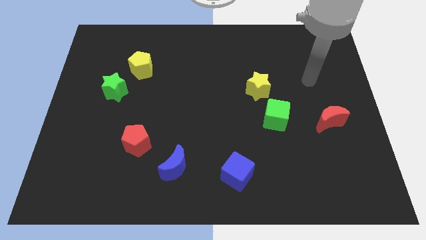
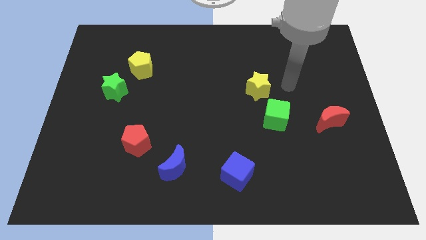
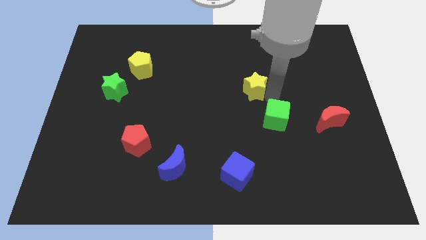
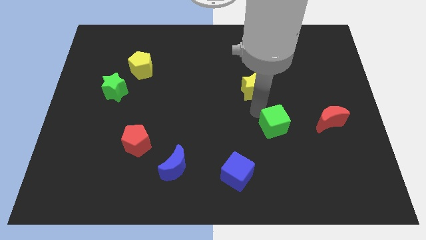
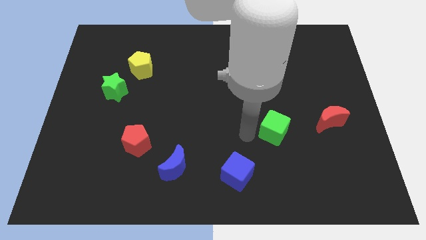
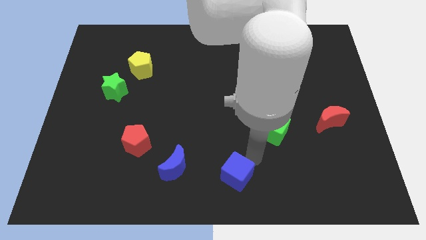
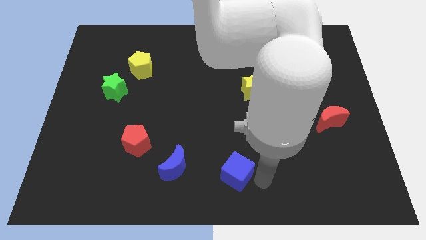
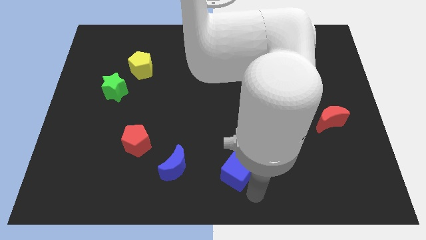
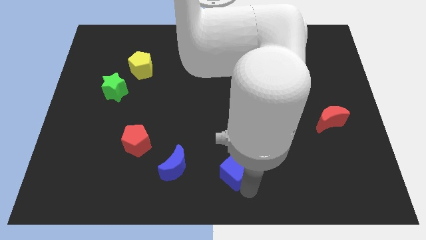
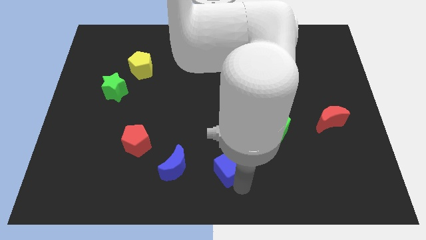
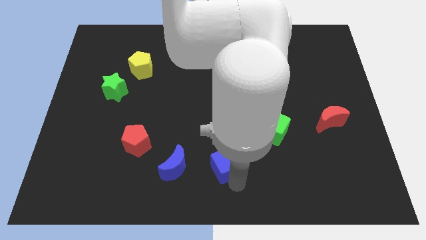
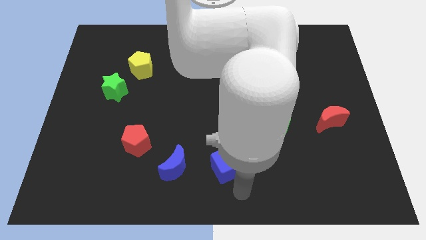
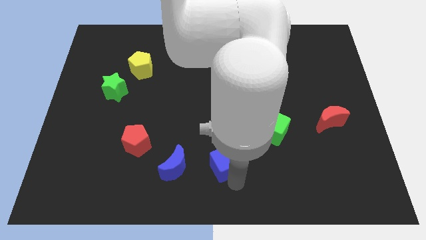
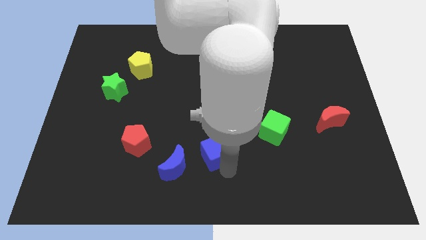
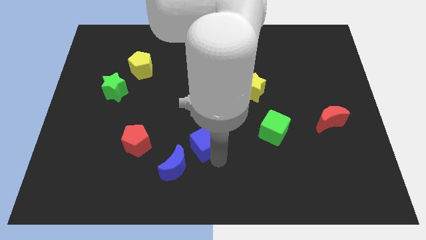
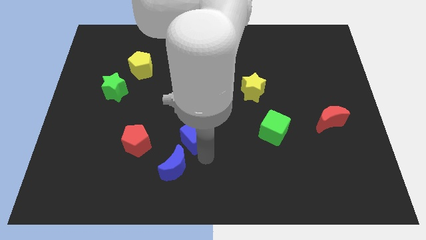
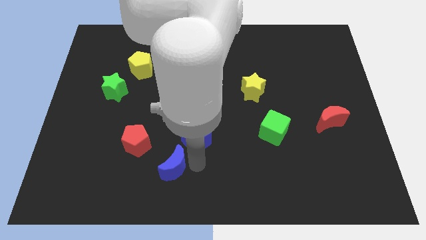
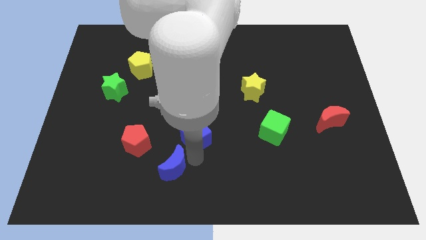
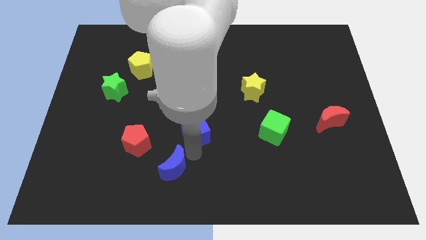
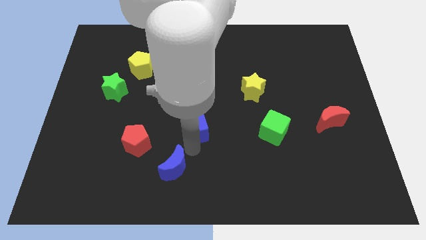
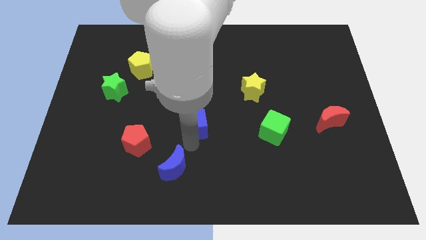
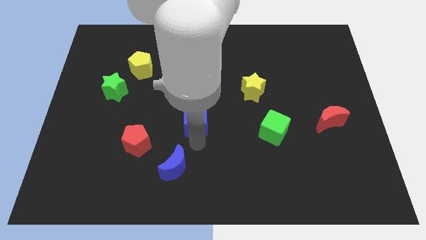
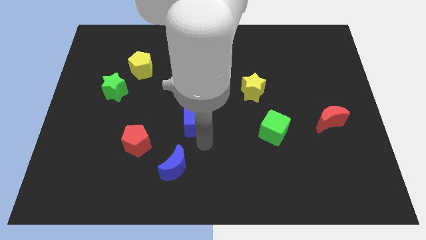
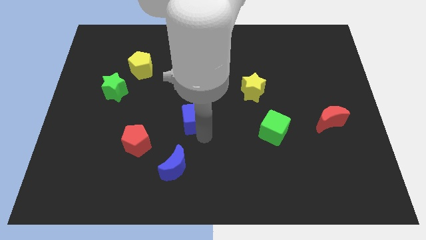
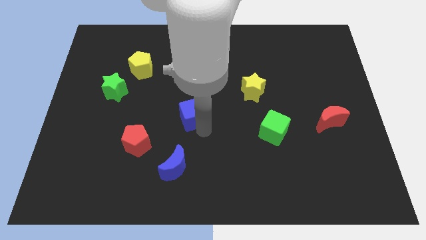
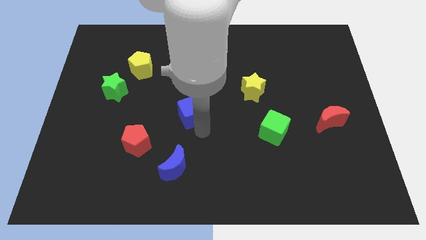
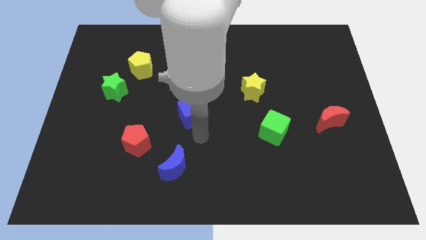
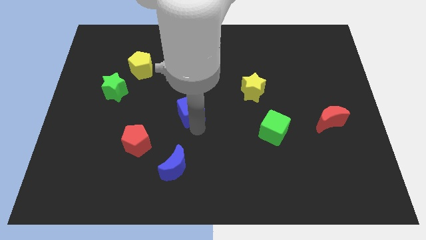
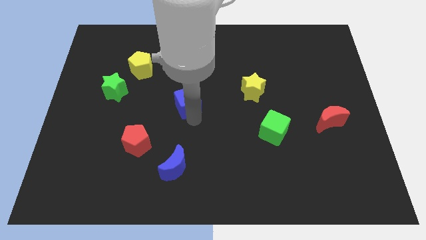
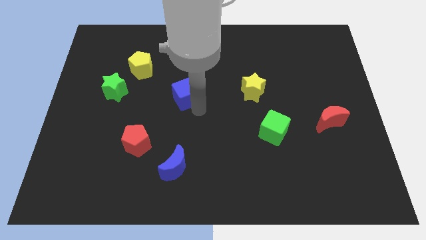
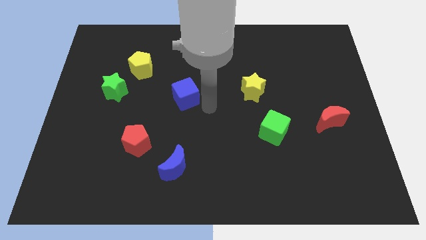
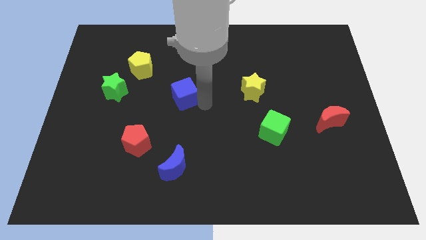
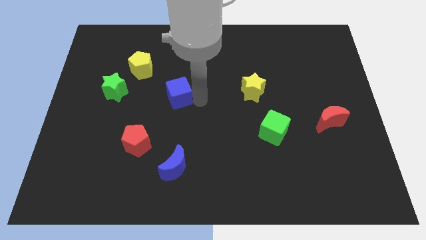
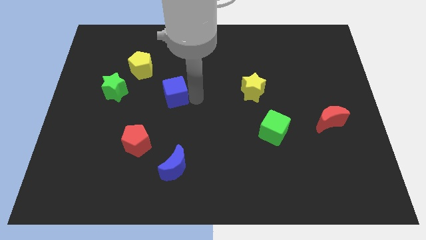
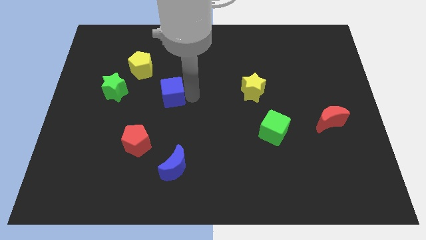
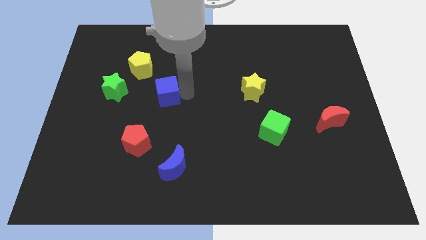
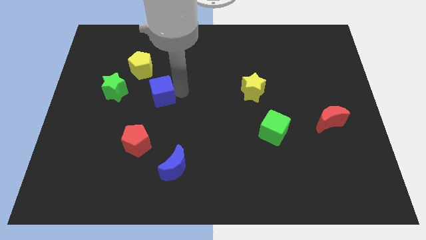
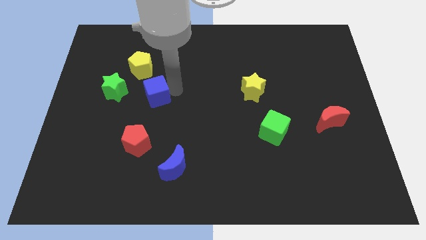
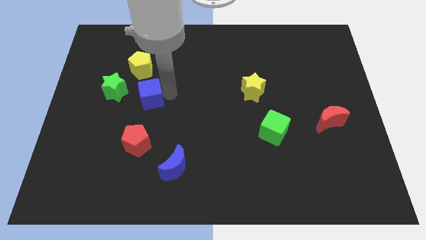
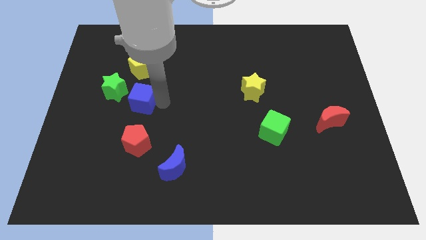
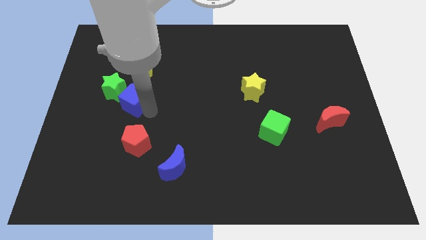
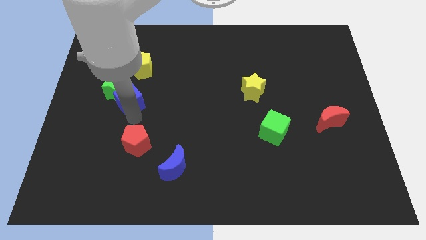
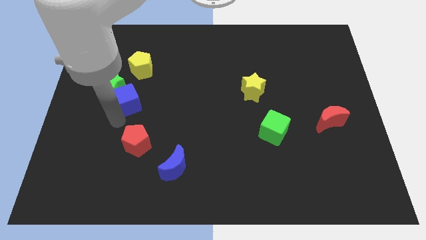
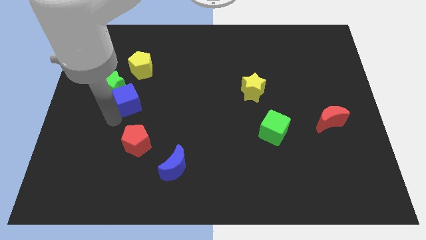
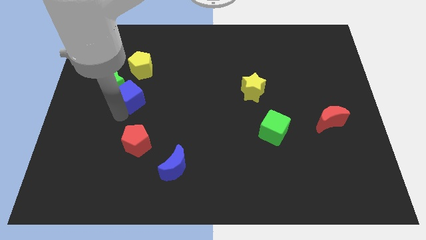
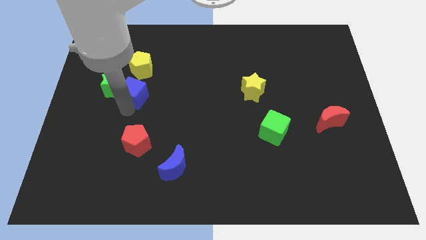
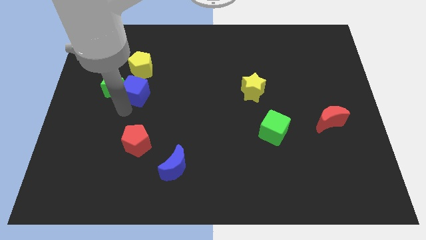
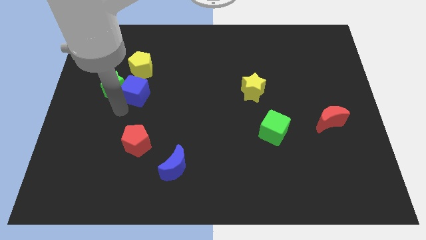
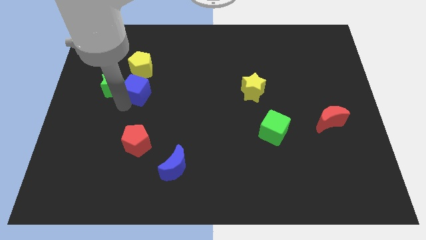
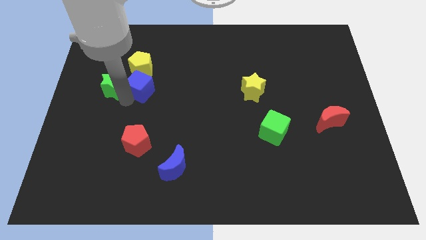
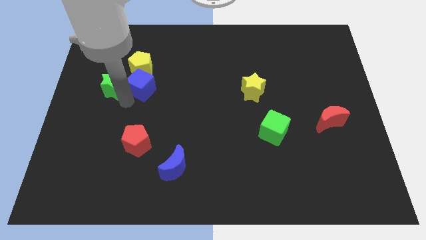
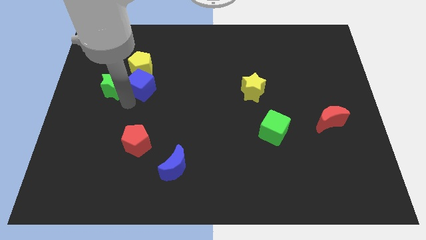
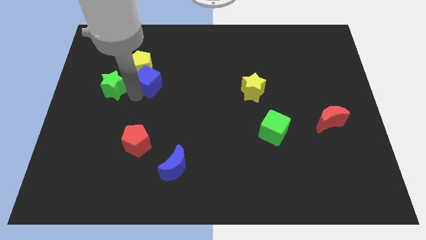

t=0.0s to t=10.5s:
push the blue cube close to the yellow pentagon

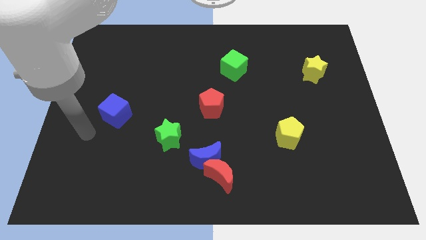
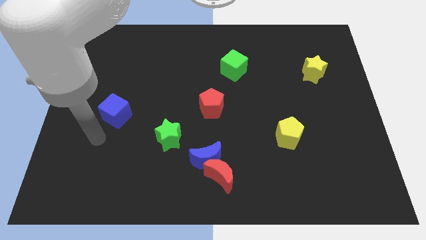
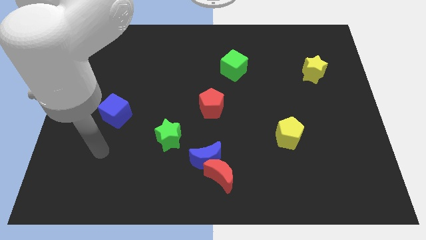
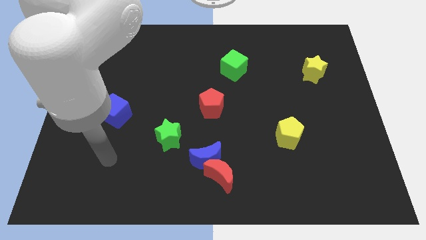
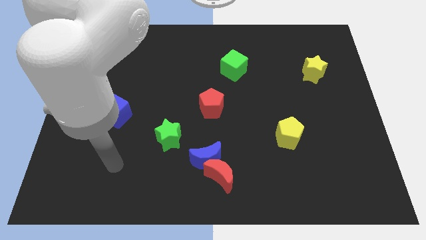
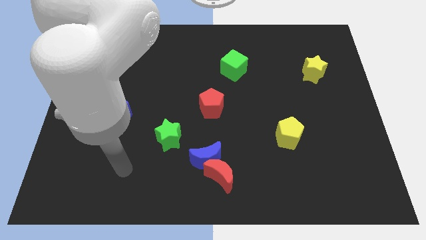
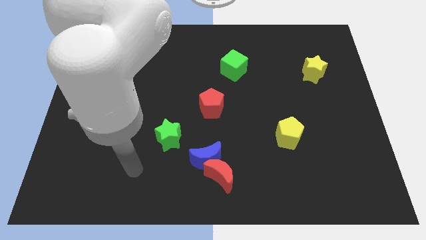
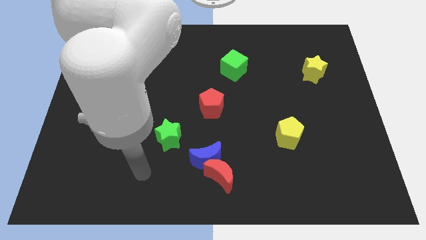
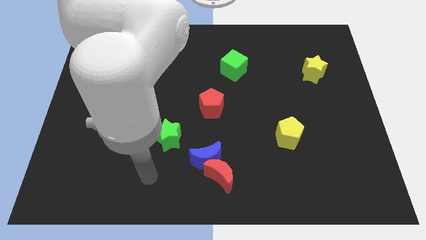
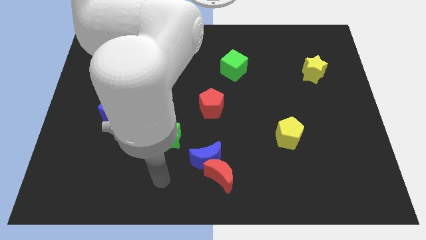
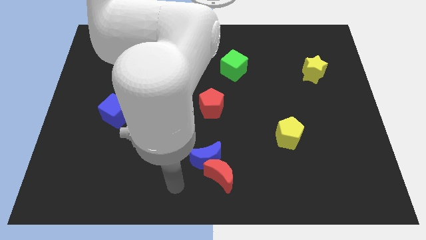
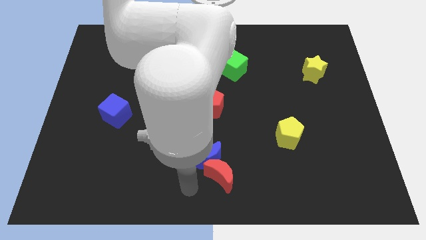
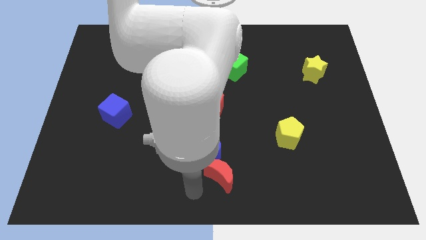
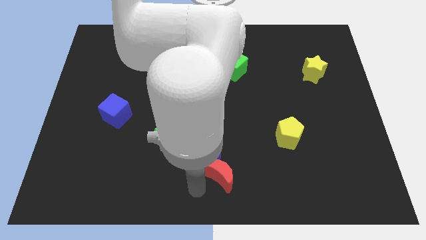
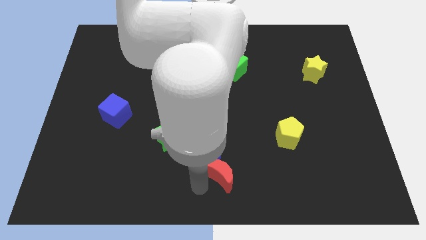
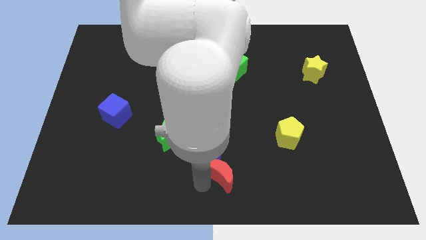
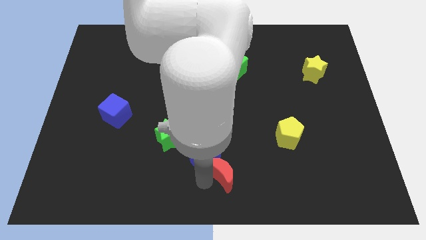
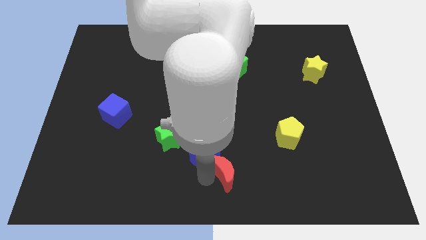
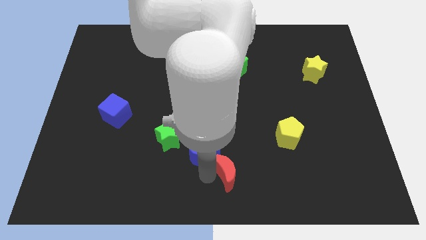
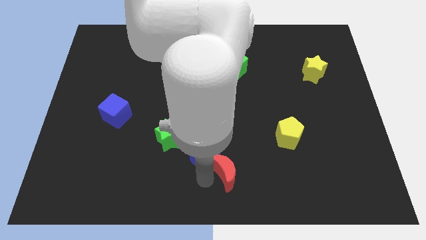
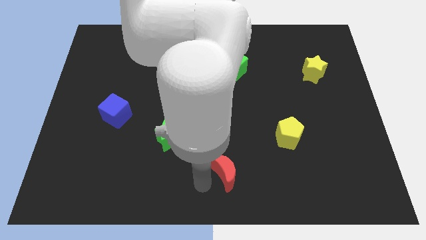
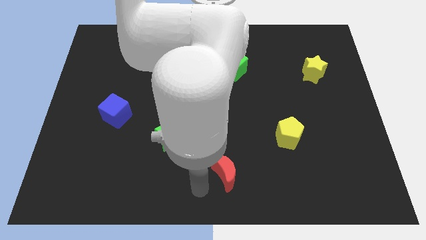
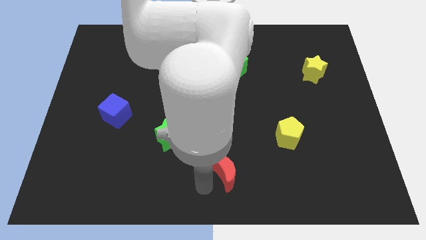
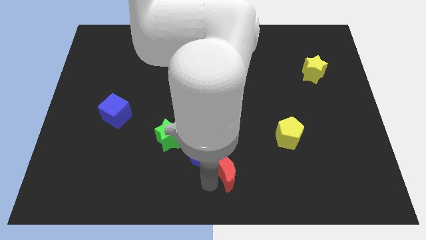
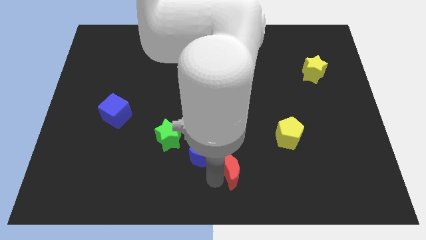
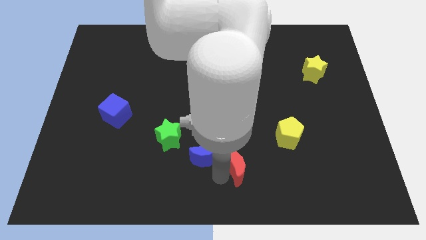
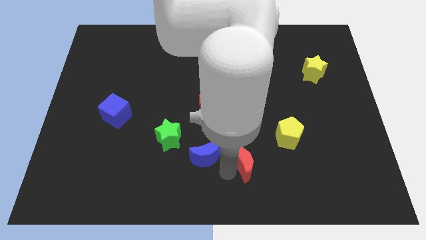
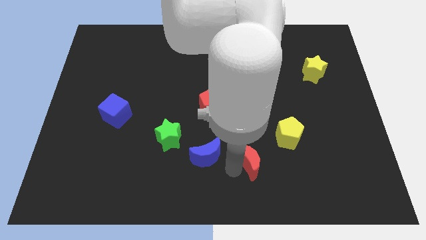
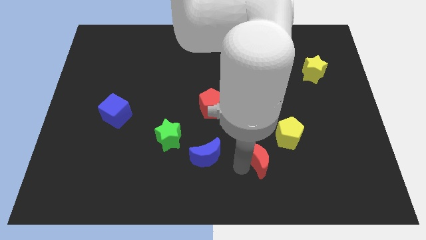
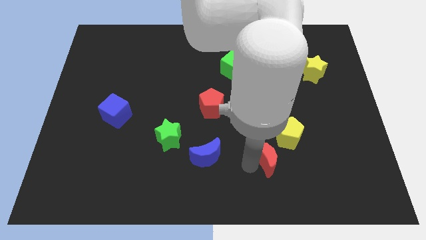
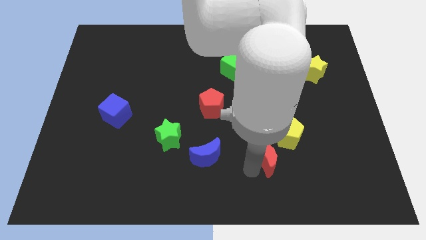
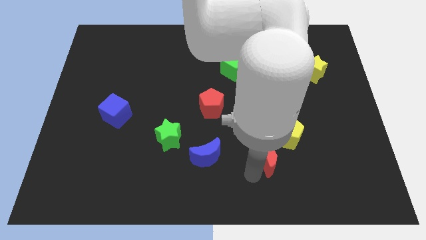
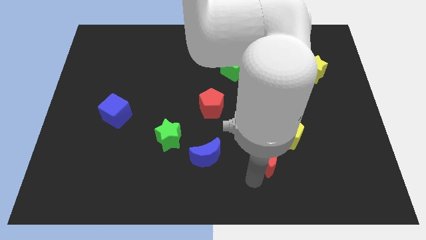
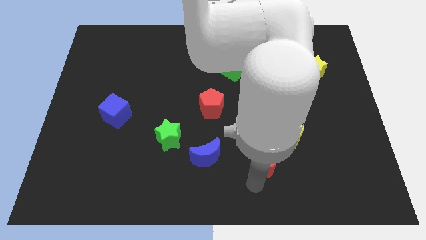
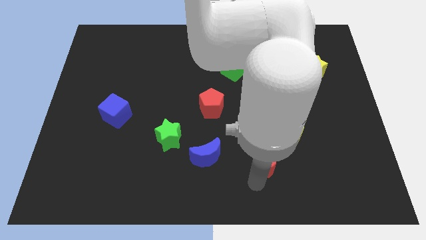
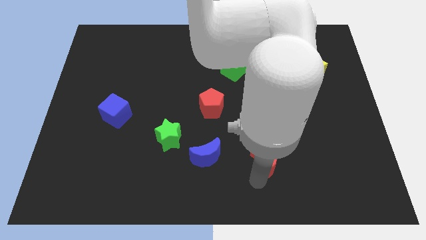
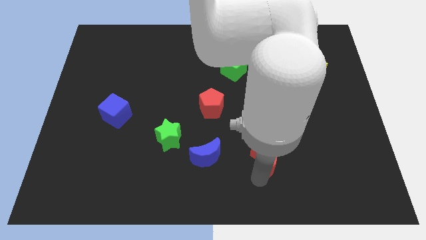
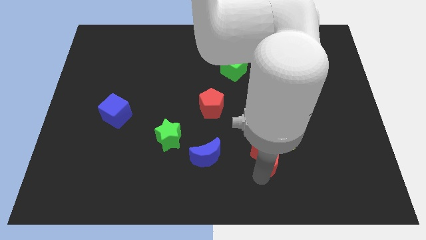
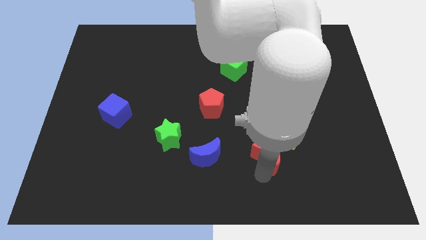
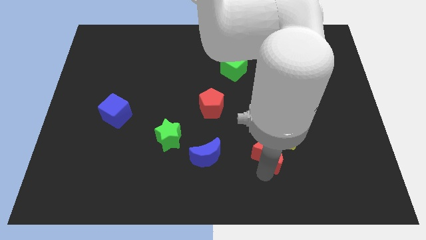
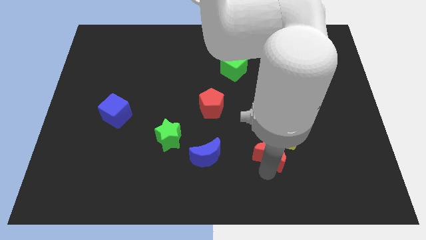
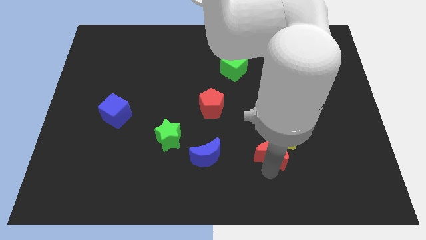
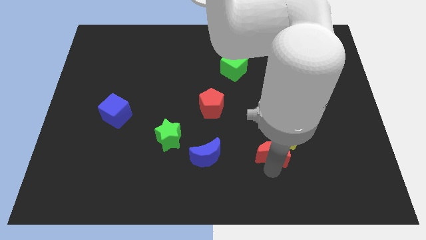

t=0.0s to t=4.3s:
put the red moon towards the yellow pentagon
